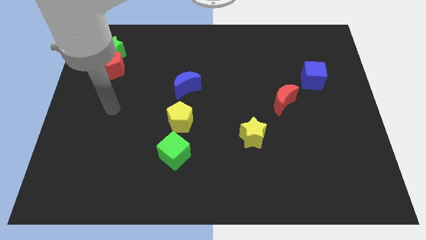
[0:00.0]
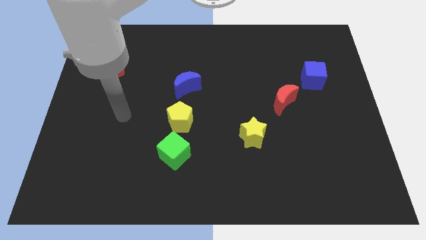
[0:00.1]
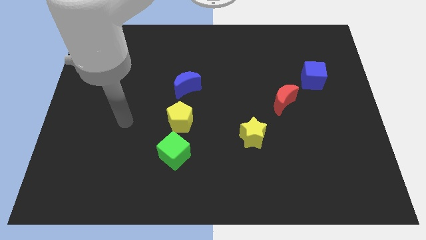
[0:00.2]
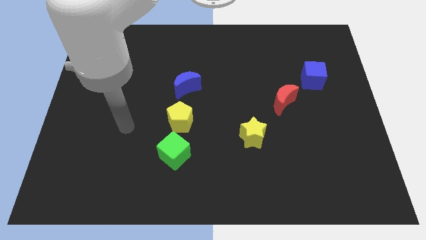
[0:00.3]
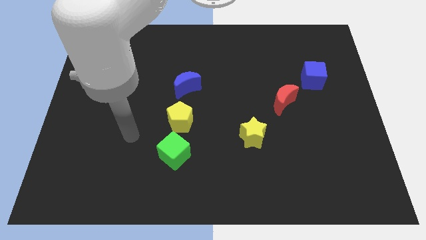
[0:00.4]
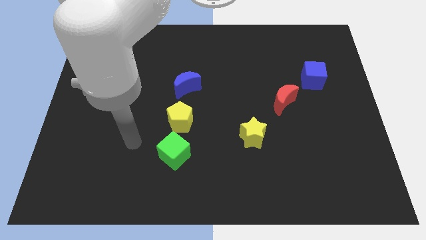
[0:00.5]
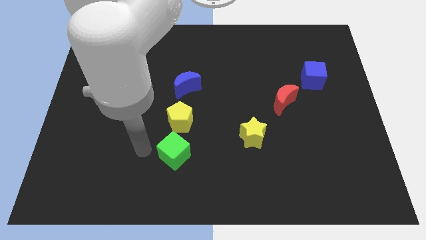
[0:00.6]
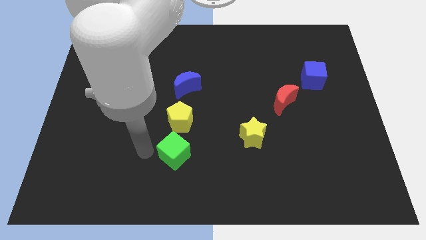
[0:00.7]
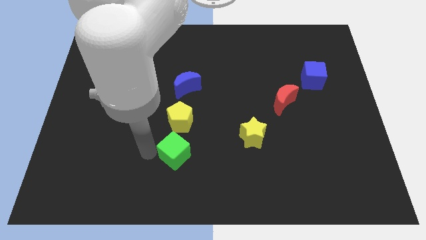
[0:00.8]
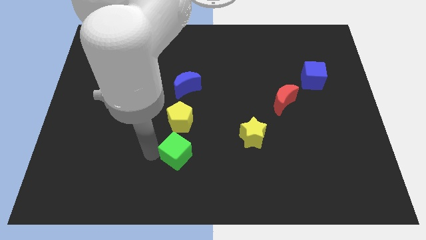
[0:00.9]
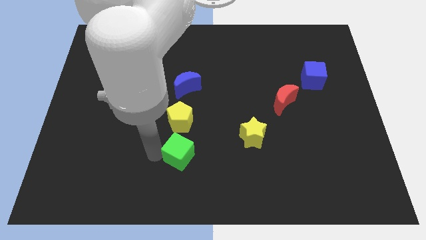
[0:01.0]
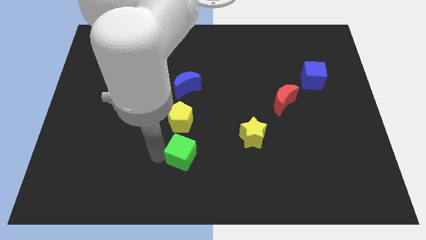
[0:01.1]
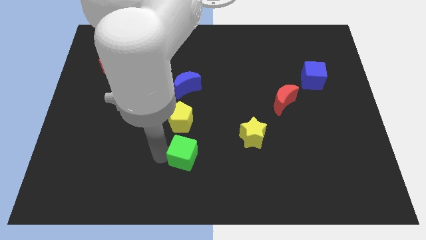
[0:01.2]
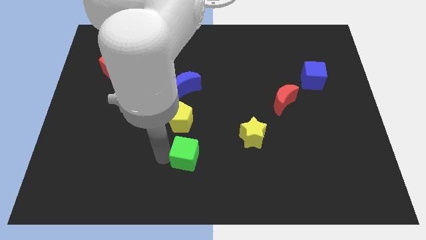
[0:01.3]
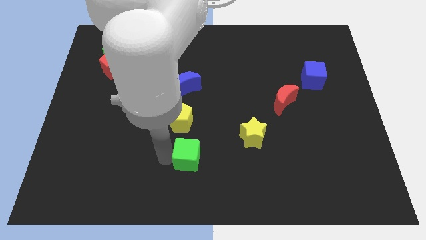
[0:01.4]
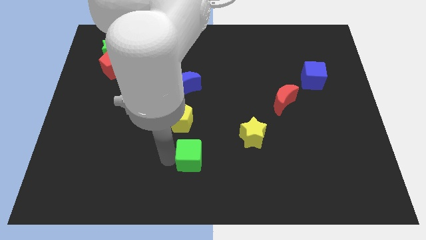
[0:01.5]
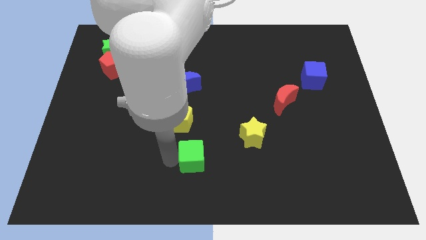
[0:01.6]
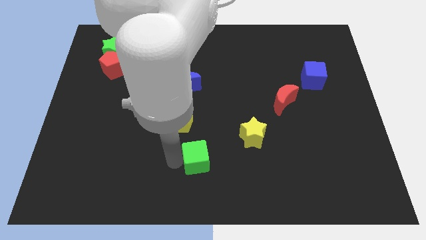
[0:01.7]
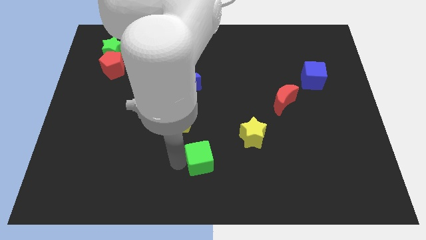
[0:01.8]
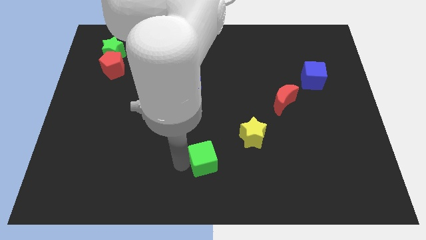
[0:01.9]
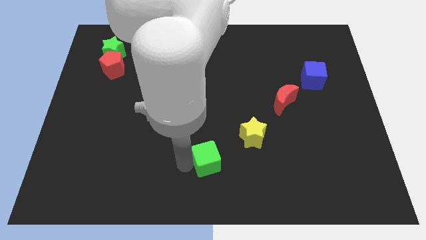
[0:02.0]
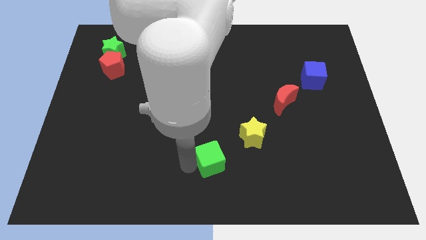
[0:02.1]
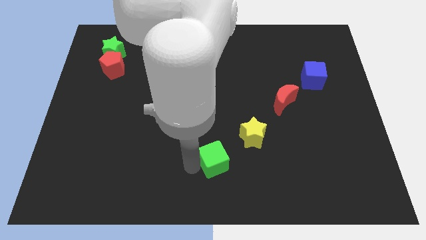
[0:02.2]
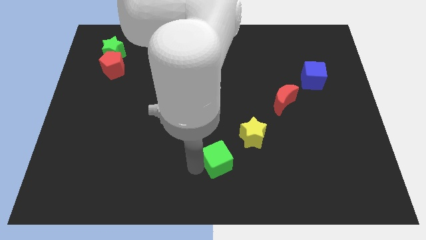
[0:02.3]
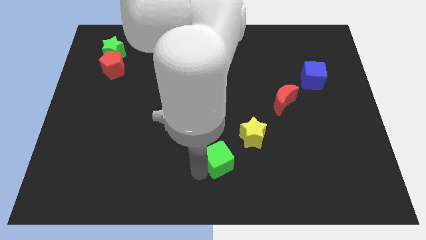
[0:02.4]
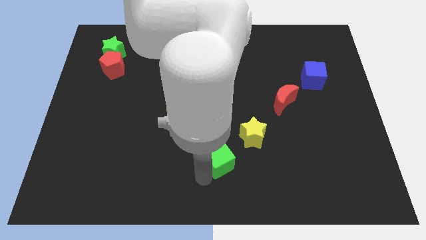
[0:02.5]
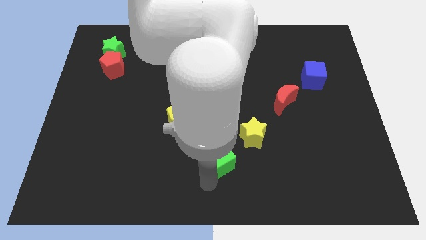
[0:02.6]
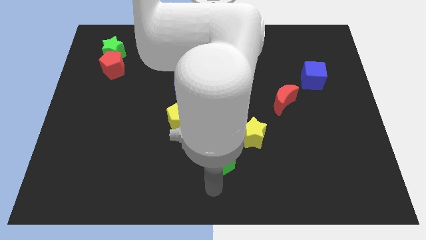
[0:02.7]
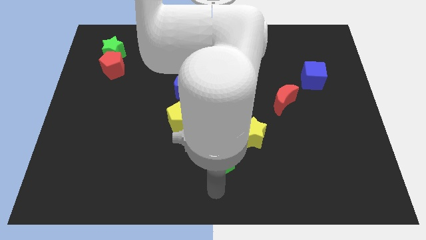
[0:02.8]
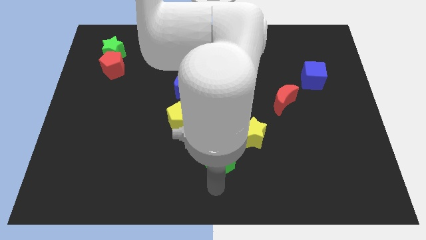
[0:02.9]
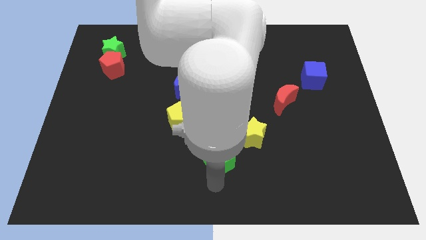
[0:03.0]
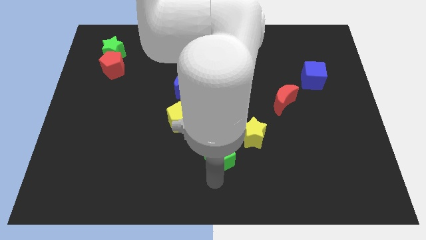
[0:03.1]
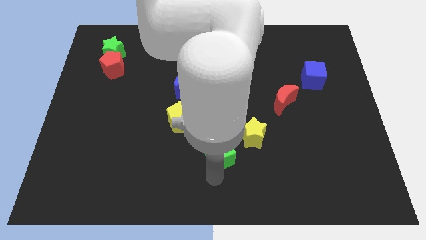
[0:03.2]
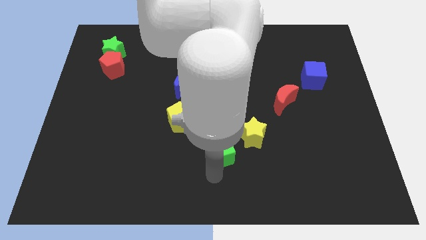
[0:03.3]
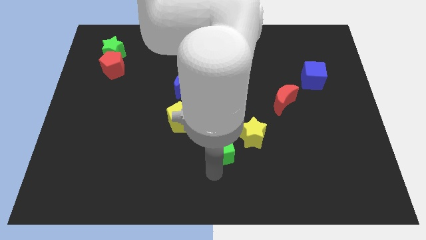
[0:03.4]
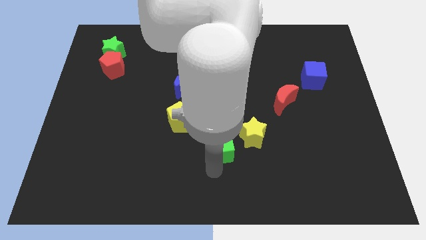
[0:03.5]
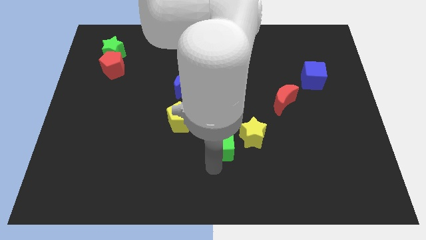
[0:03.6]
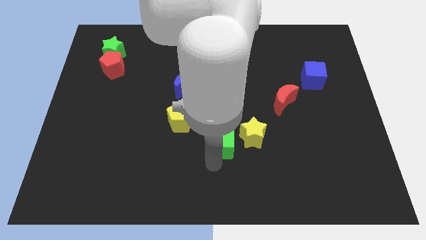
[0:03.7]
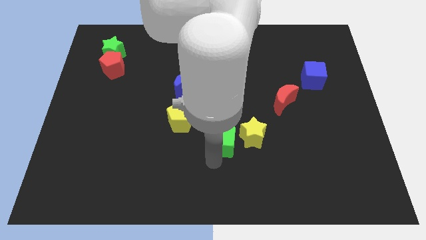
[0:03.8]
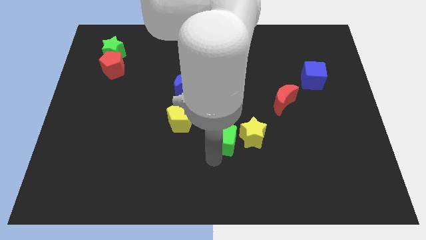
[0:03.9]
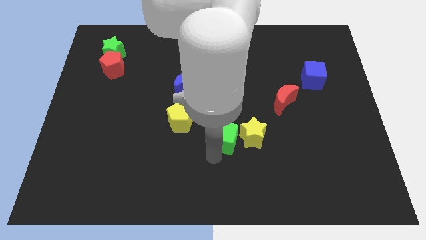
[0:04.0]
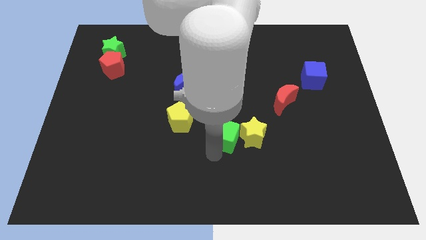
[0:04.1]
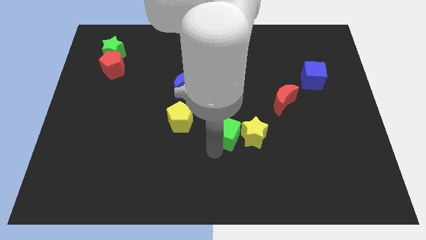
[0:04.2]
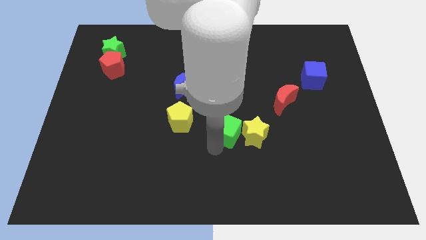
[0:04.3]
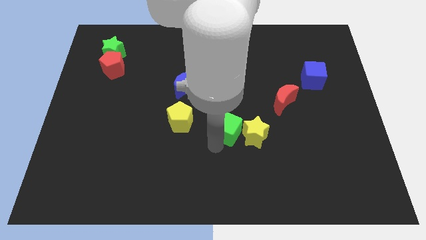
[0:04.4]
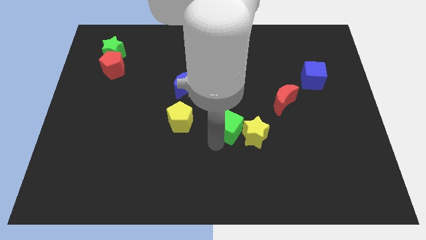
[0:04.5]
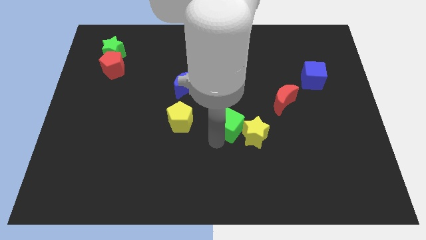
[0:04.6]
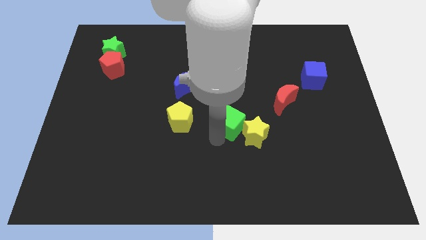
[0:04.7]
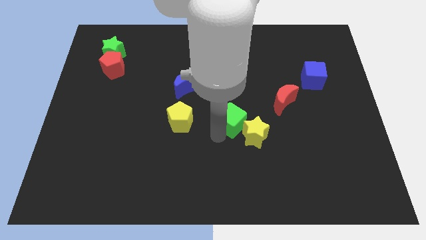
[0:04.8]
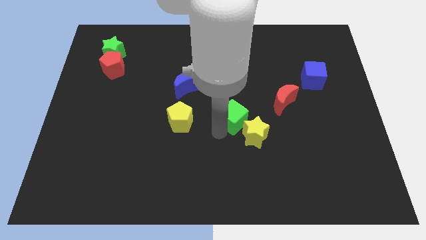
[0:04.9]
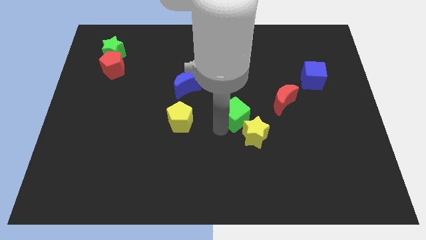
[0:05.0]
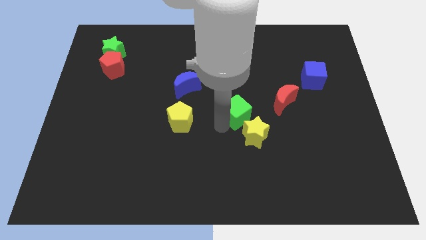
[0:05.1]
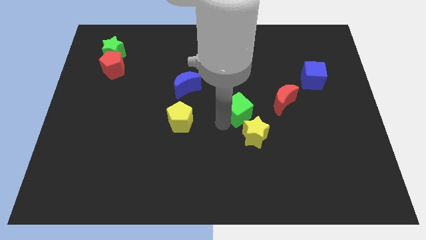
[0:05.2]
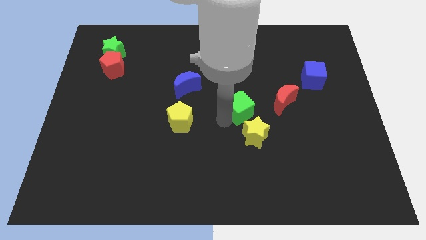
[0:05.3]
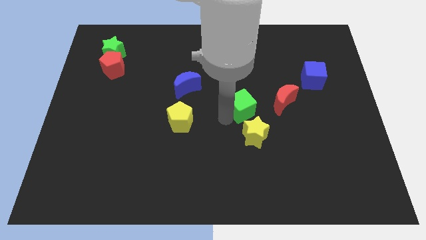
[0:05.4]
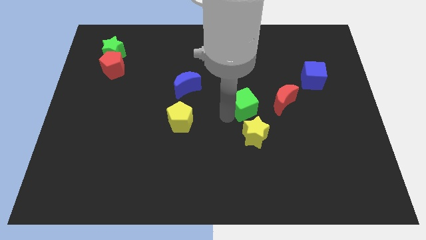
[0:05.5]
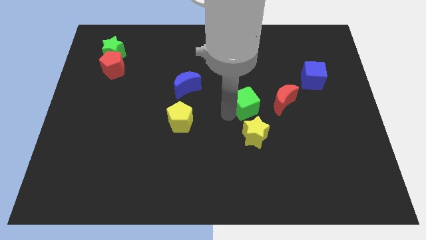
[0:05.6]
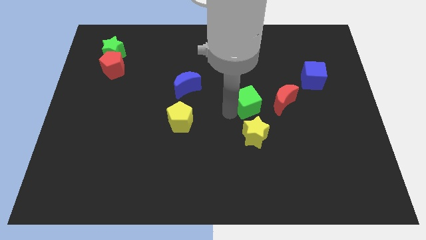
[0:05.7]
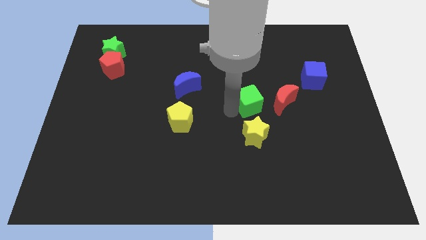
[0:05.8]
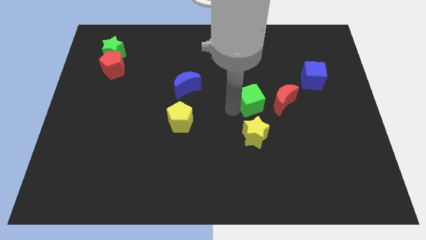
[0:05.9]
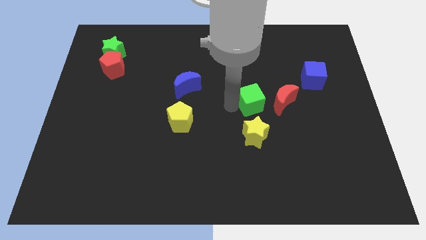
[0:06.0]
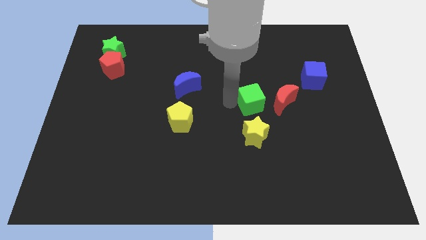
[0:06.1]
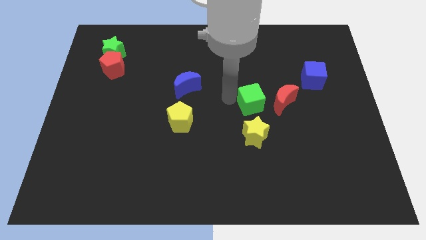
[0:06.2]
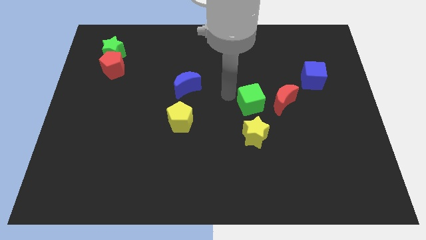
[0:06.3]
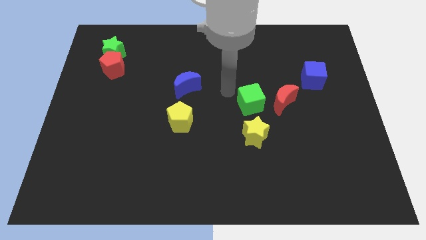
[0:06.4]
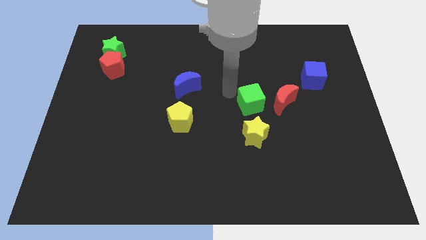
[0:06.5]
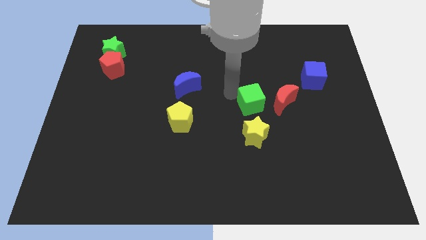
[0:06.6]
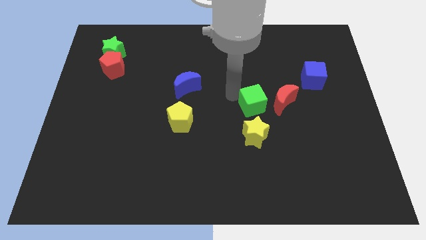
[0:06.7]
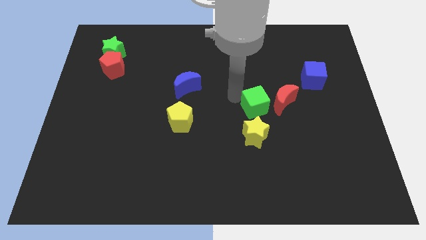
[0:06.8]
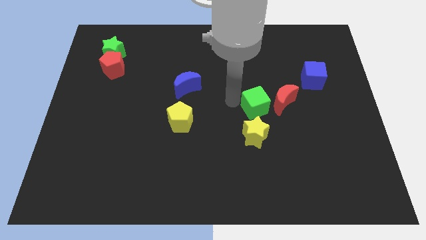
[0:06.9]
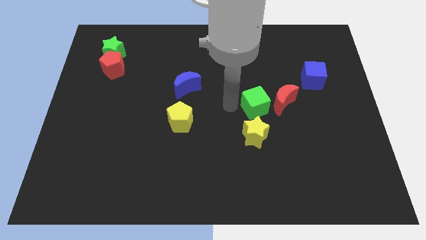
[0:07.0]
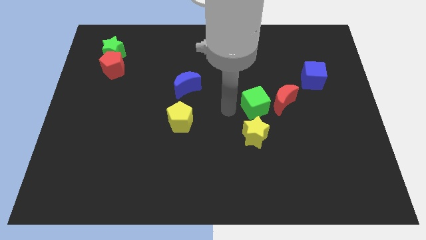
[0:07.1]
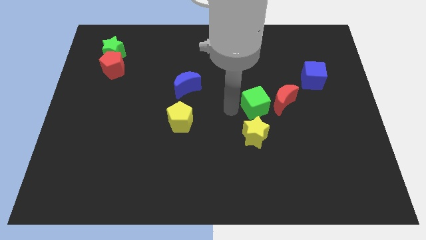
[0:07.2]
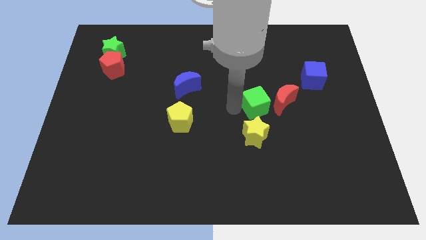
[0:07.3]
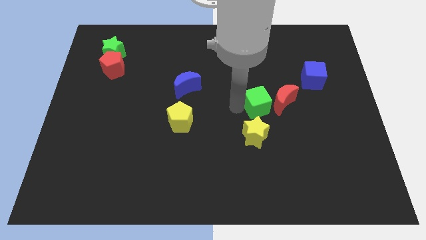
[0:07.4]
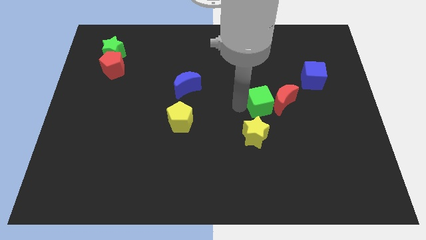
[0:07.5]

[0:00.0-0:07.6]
move the green cube next to the red moon
